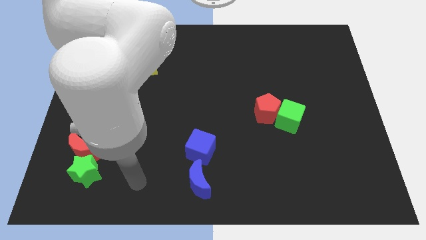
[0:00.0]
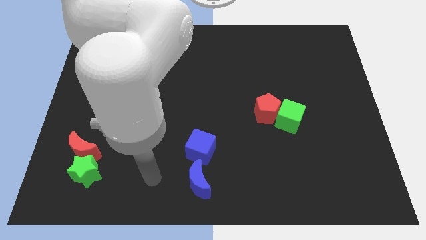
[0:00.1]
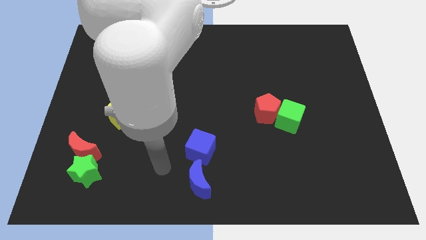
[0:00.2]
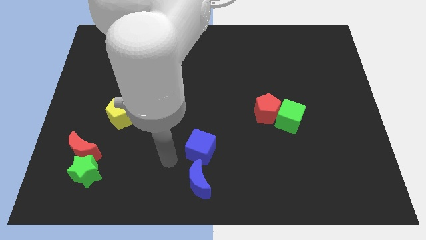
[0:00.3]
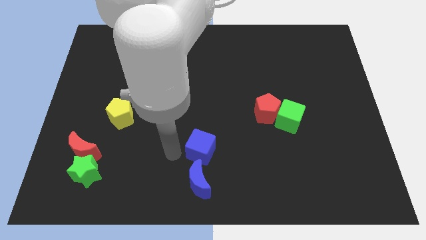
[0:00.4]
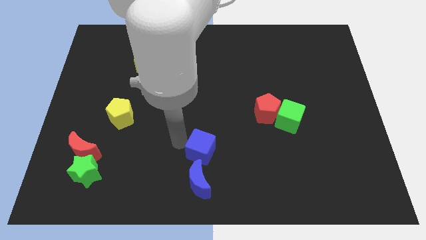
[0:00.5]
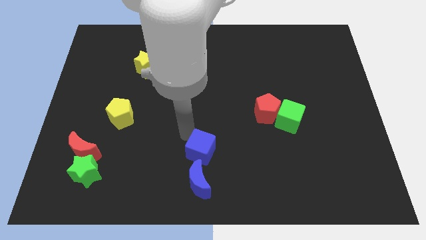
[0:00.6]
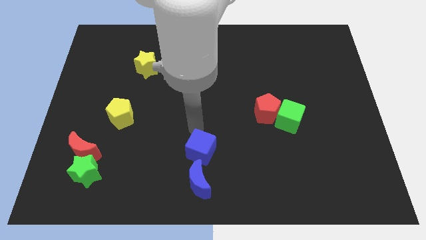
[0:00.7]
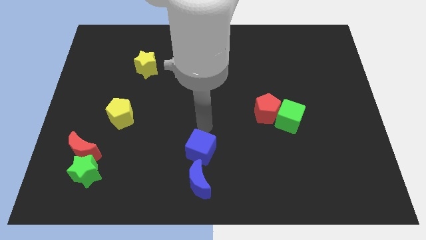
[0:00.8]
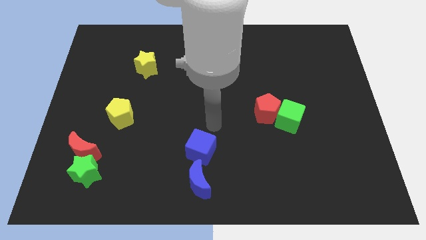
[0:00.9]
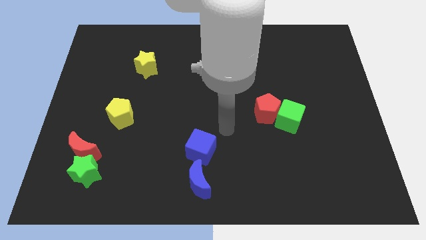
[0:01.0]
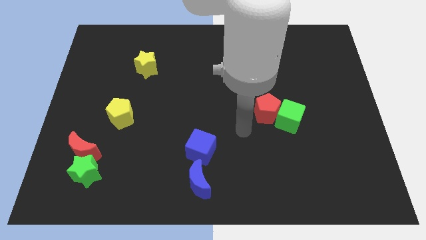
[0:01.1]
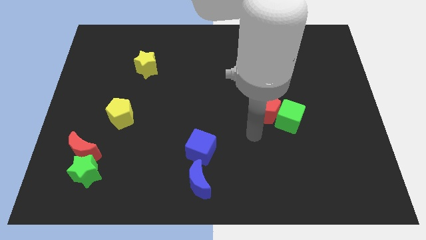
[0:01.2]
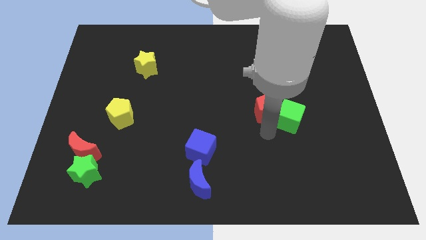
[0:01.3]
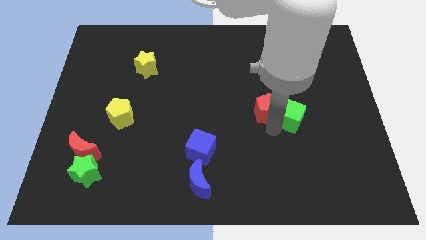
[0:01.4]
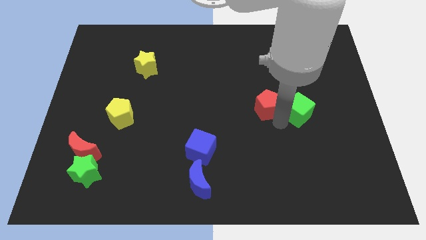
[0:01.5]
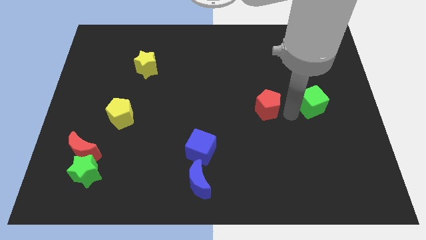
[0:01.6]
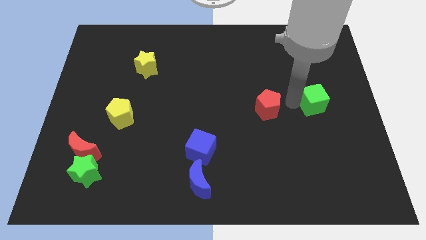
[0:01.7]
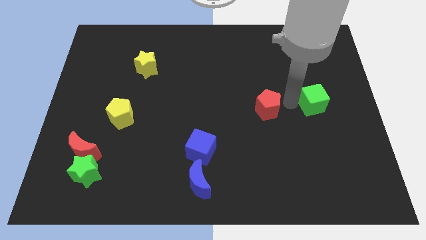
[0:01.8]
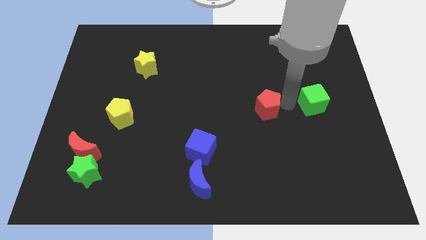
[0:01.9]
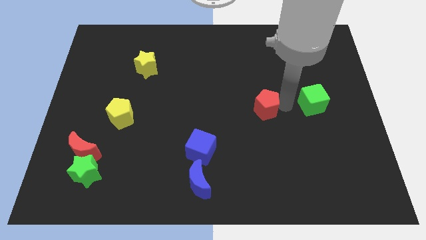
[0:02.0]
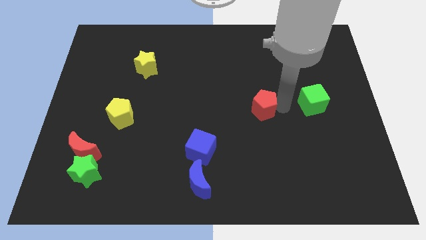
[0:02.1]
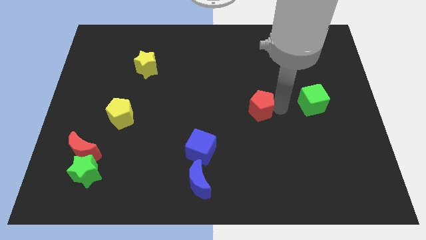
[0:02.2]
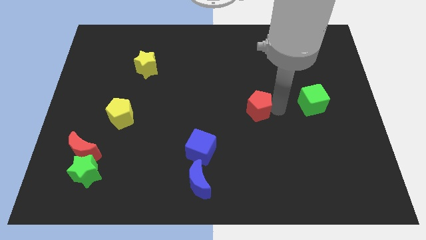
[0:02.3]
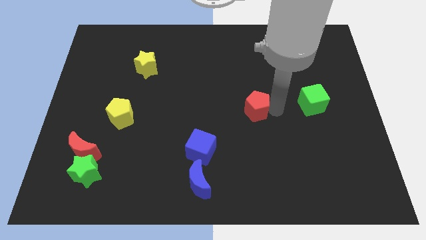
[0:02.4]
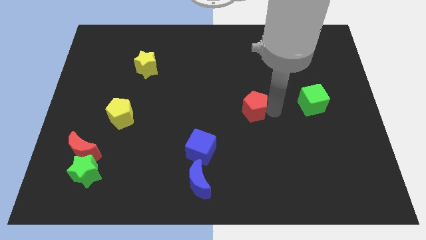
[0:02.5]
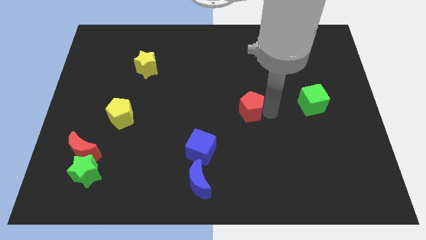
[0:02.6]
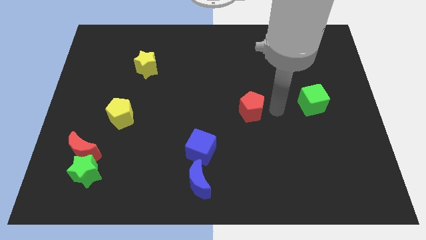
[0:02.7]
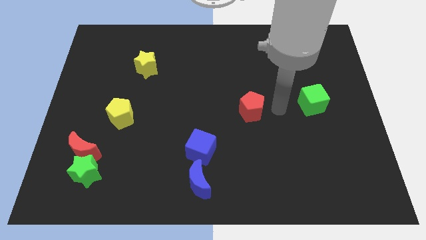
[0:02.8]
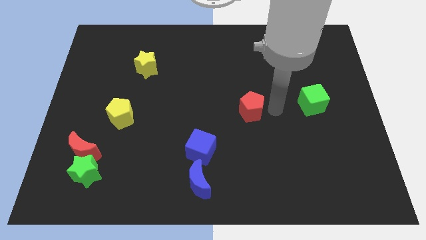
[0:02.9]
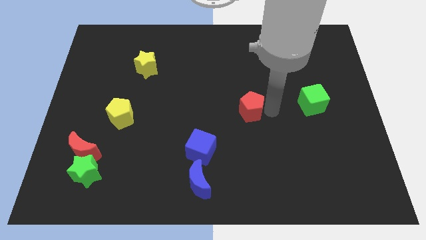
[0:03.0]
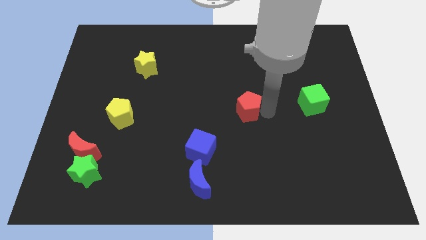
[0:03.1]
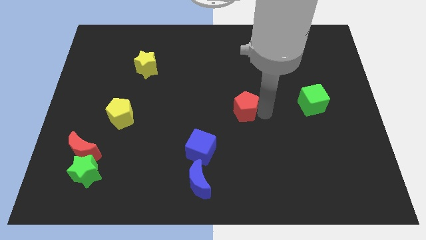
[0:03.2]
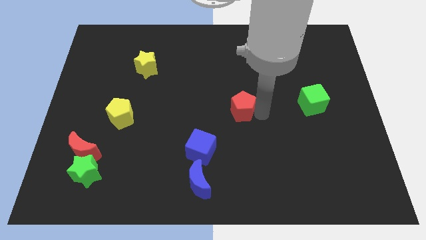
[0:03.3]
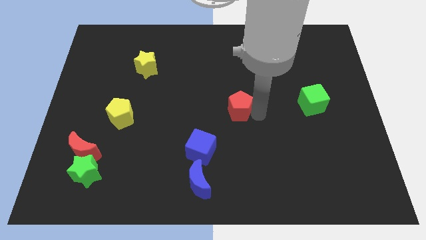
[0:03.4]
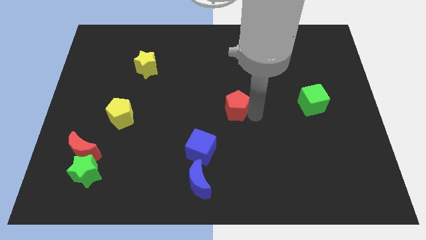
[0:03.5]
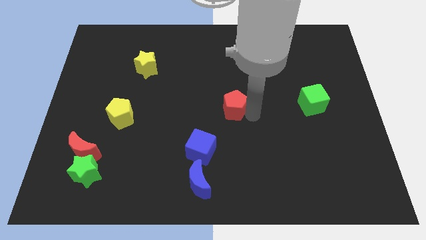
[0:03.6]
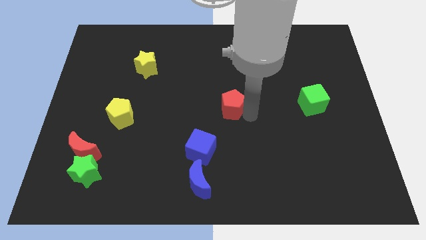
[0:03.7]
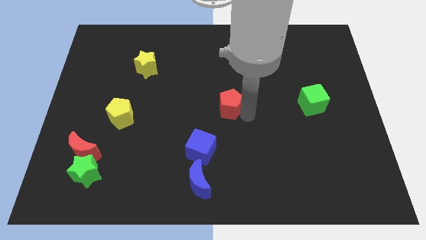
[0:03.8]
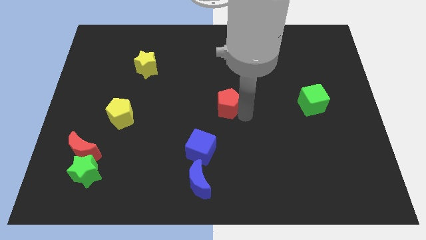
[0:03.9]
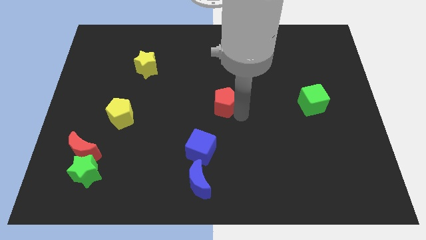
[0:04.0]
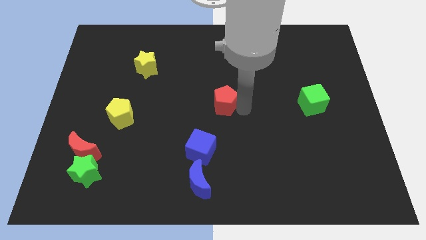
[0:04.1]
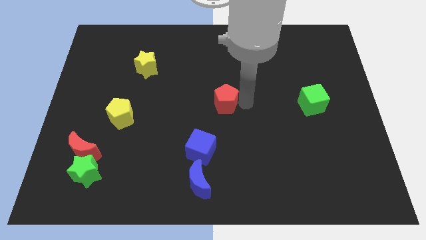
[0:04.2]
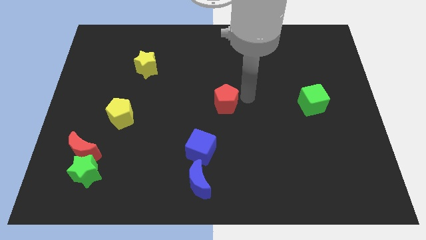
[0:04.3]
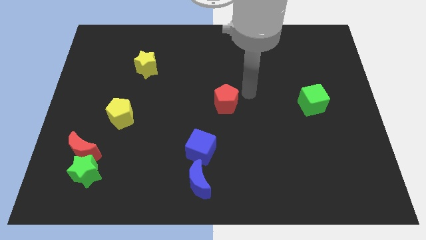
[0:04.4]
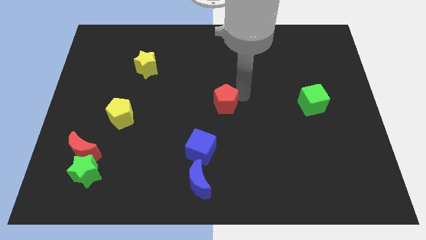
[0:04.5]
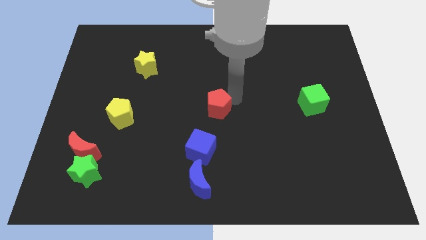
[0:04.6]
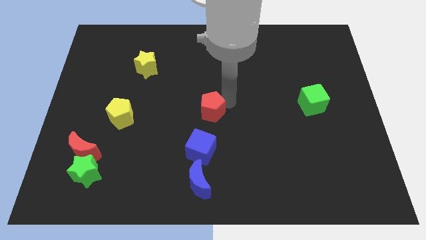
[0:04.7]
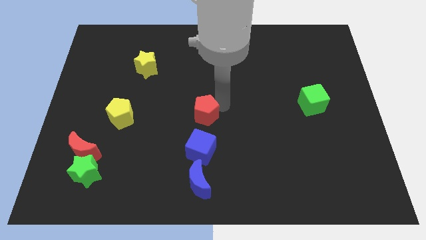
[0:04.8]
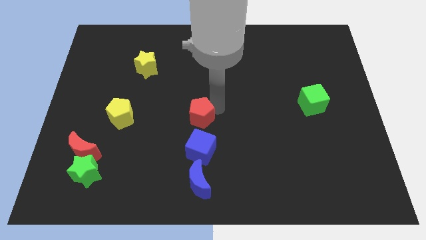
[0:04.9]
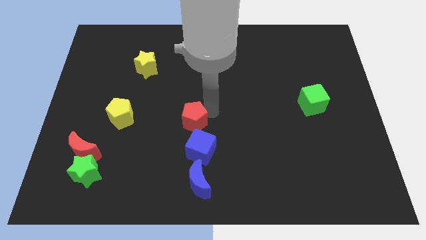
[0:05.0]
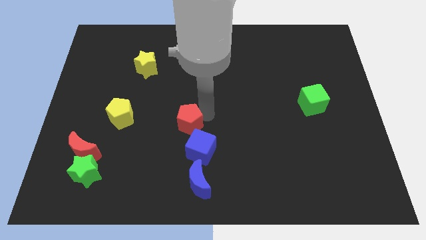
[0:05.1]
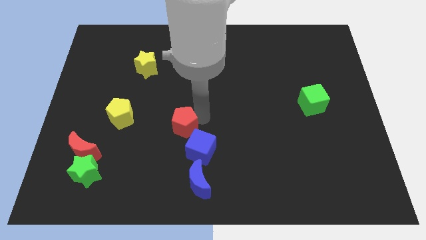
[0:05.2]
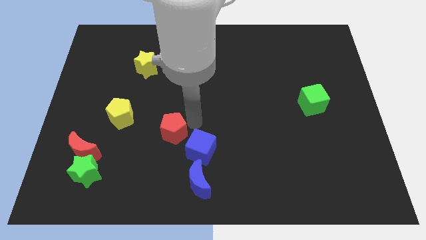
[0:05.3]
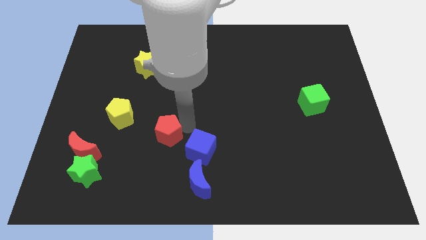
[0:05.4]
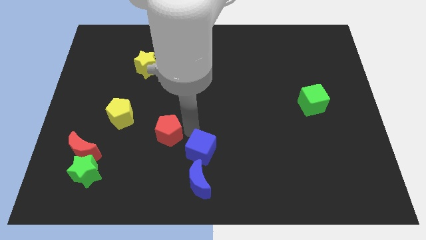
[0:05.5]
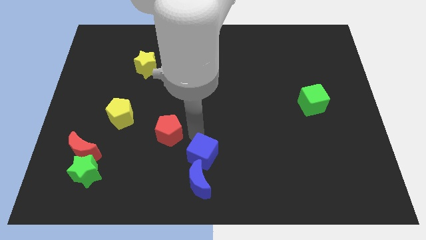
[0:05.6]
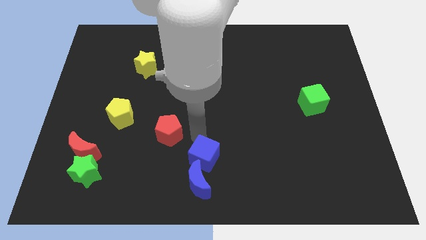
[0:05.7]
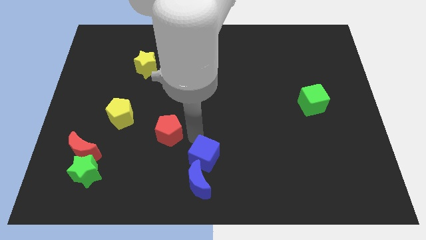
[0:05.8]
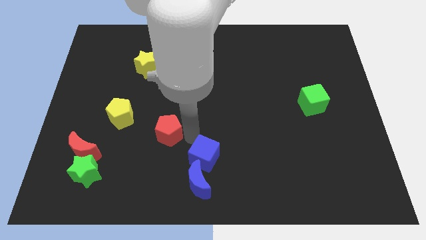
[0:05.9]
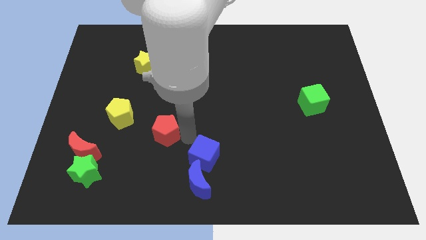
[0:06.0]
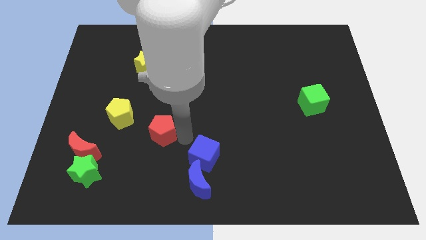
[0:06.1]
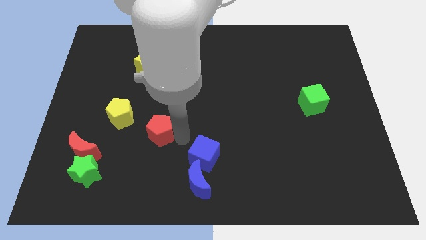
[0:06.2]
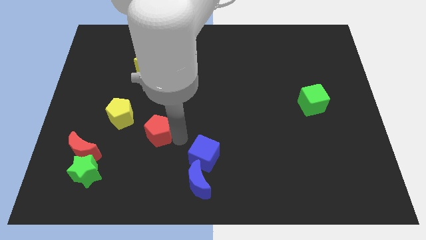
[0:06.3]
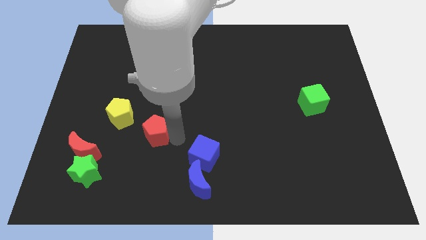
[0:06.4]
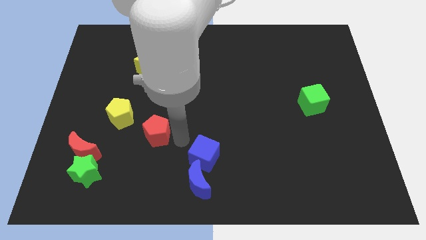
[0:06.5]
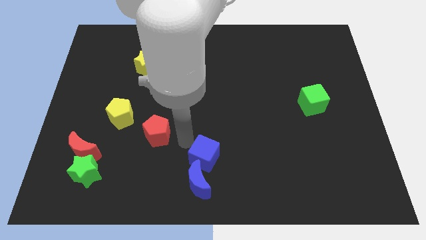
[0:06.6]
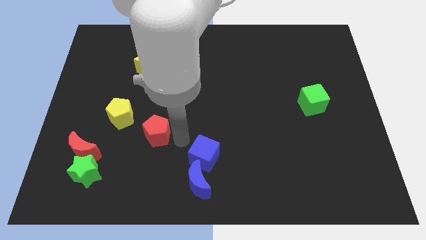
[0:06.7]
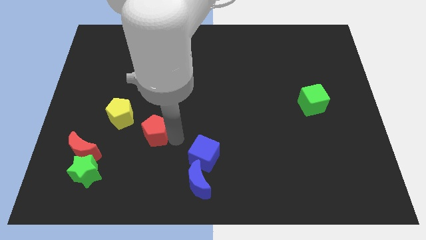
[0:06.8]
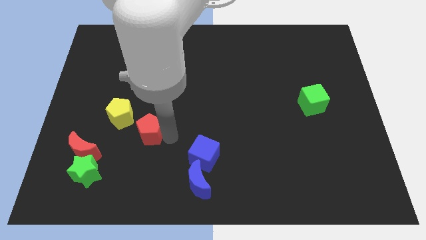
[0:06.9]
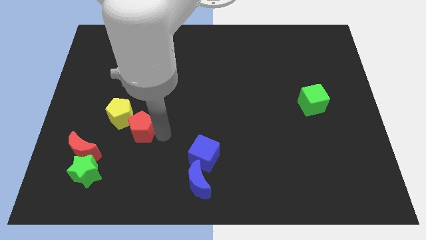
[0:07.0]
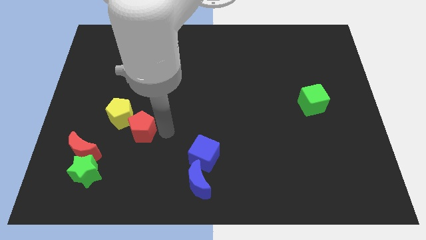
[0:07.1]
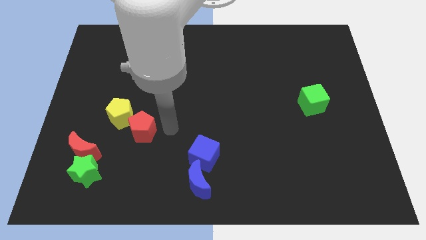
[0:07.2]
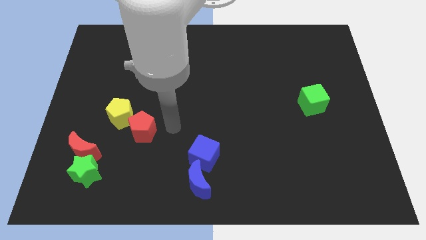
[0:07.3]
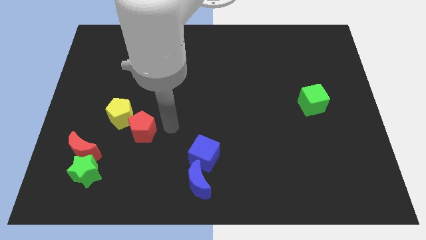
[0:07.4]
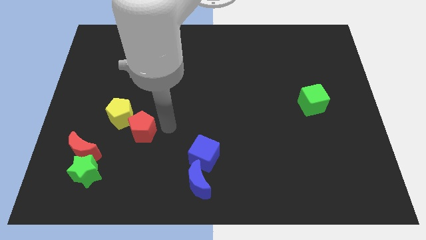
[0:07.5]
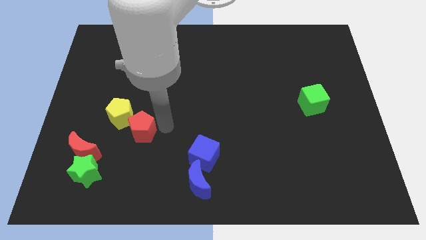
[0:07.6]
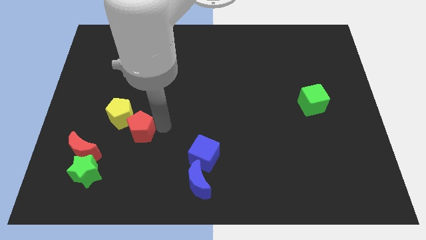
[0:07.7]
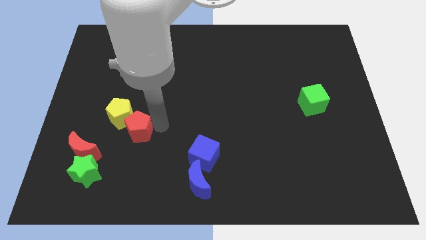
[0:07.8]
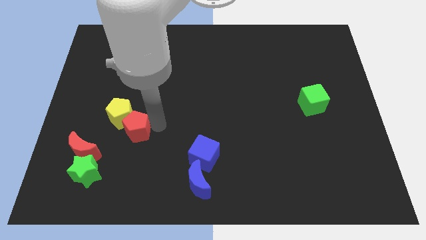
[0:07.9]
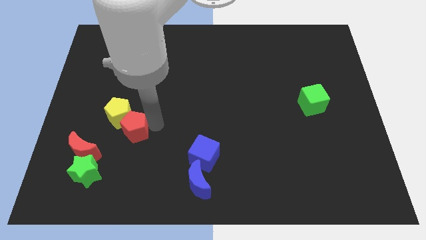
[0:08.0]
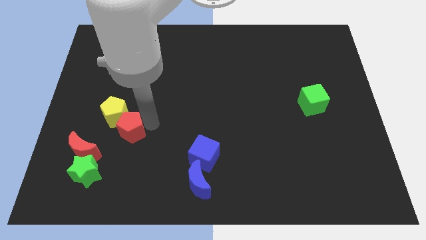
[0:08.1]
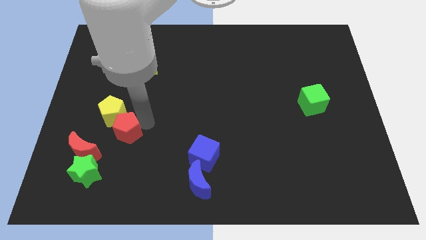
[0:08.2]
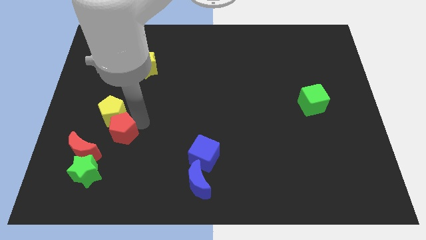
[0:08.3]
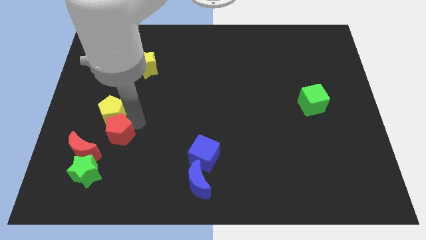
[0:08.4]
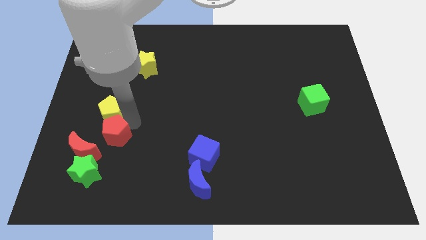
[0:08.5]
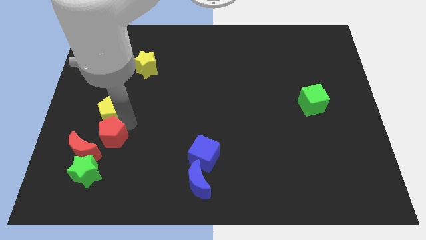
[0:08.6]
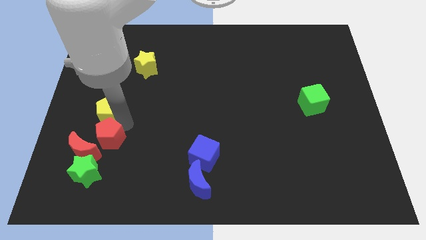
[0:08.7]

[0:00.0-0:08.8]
put the red pentagon next to the red moon
